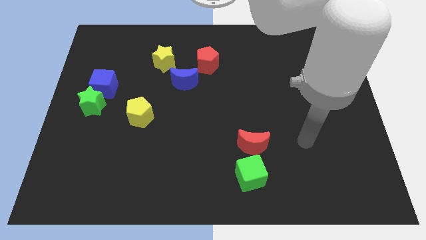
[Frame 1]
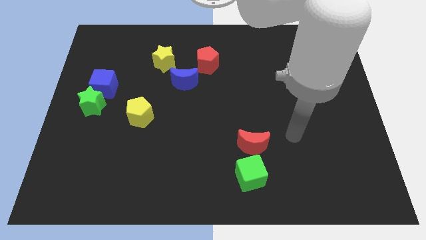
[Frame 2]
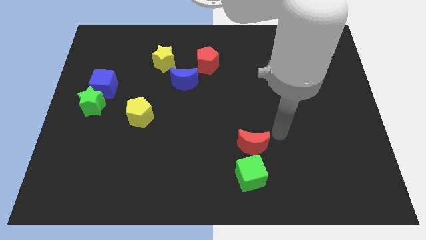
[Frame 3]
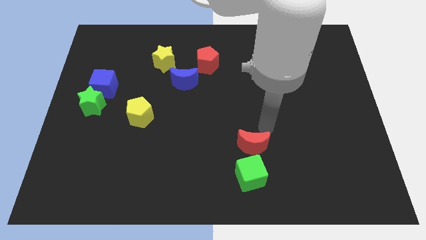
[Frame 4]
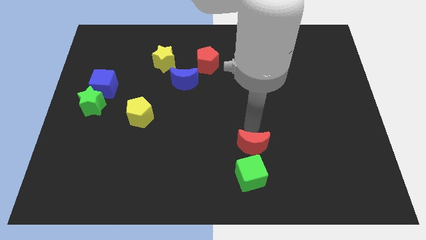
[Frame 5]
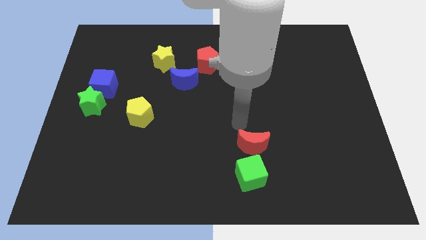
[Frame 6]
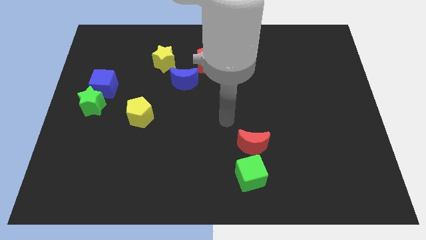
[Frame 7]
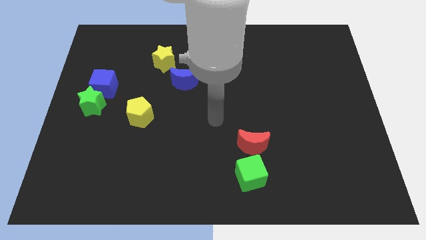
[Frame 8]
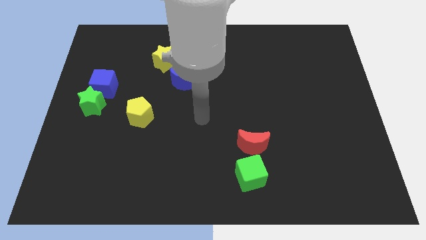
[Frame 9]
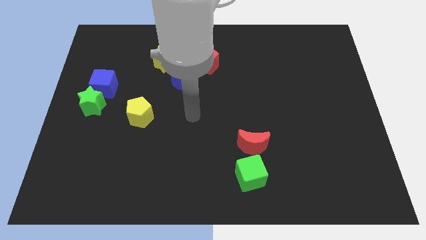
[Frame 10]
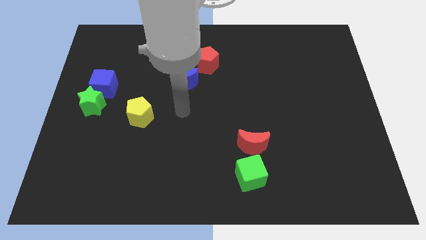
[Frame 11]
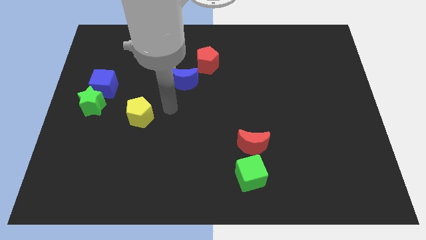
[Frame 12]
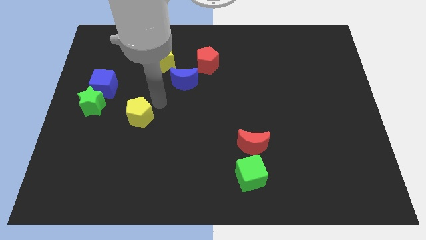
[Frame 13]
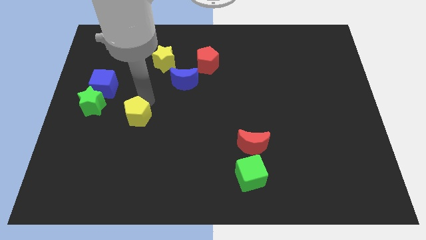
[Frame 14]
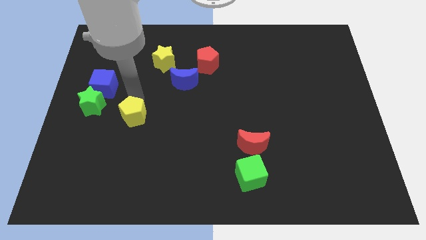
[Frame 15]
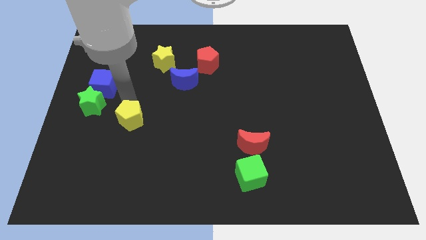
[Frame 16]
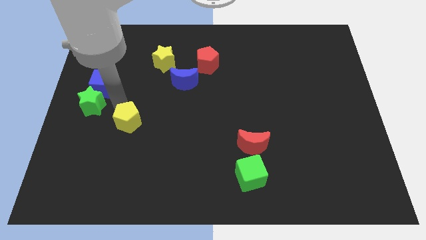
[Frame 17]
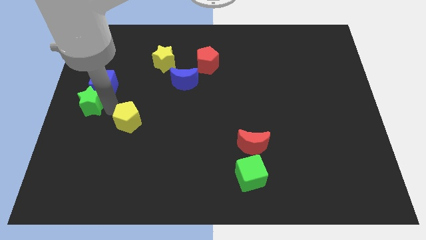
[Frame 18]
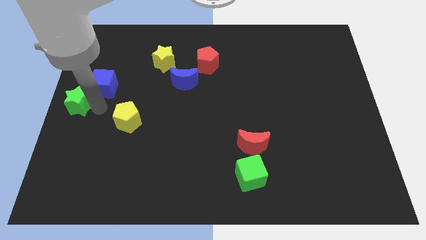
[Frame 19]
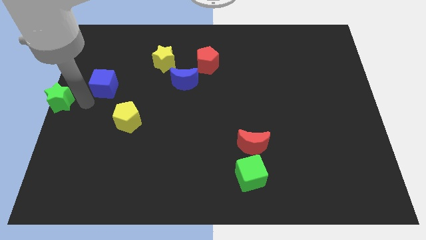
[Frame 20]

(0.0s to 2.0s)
pull the blue cube apart from the green star

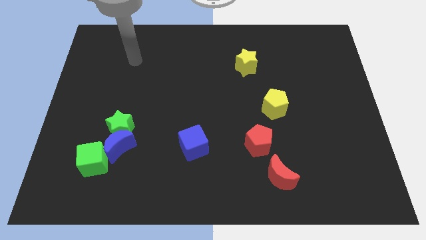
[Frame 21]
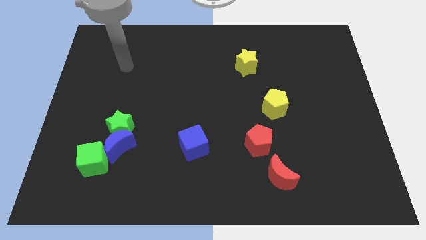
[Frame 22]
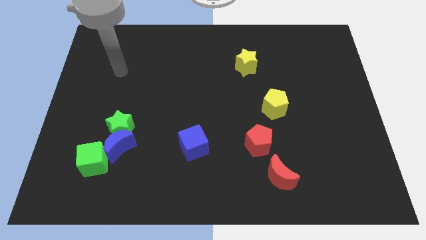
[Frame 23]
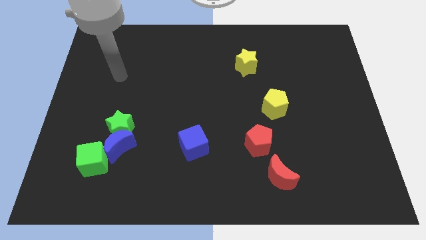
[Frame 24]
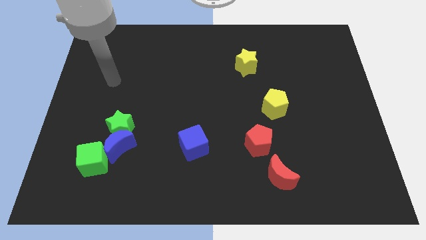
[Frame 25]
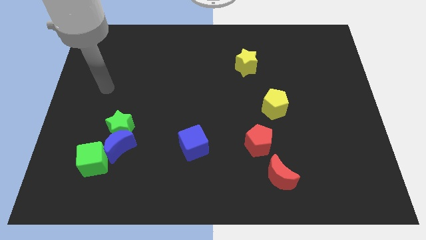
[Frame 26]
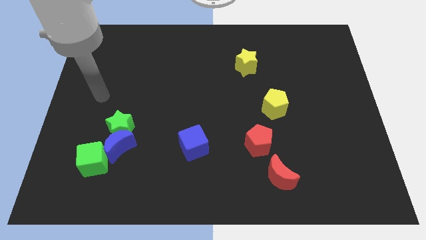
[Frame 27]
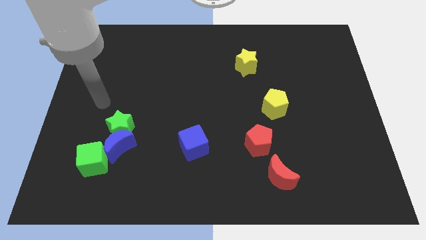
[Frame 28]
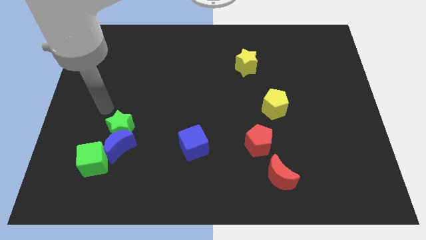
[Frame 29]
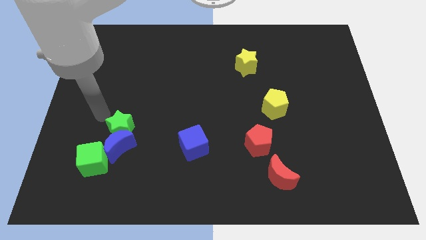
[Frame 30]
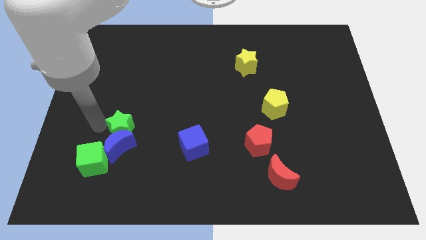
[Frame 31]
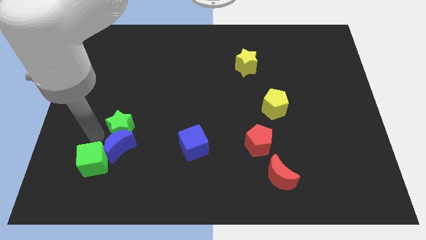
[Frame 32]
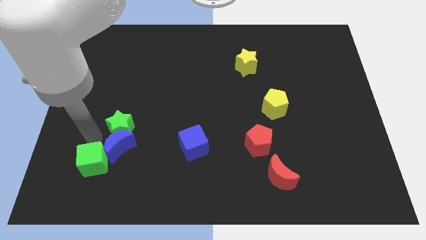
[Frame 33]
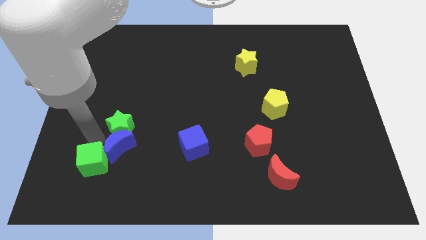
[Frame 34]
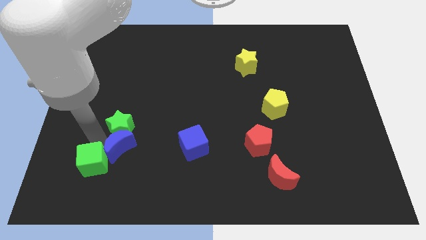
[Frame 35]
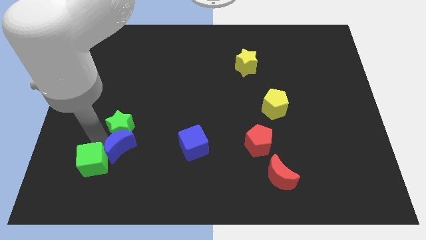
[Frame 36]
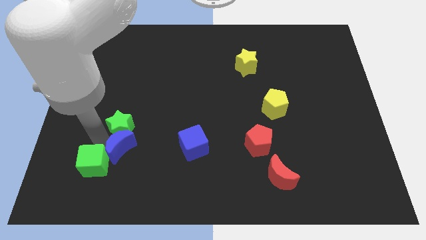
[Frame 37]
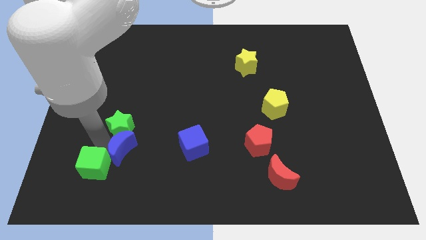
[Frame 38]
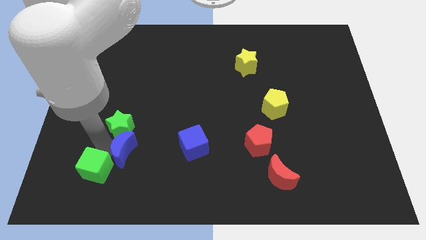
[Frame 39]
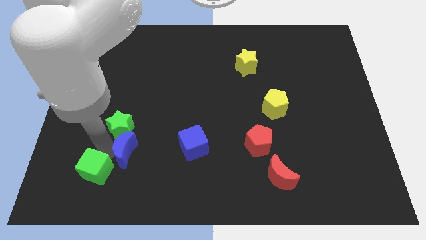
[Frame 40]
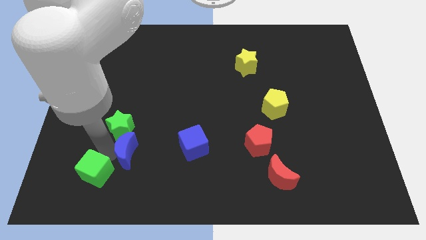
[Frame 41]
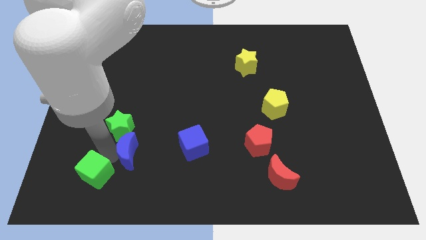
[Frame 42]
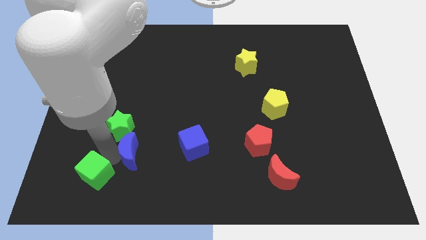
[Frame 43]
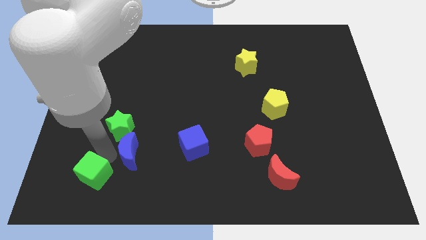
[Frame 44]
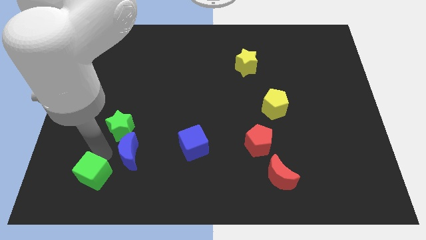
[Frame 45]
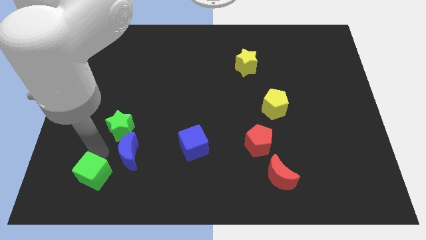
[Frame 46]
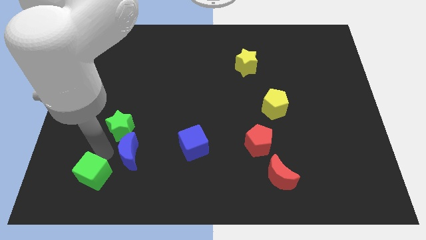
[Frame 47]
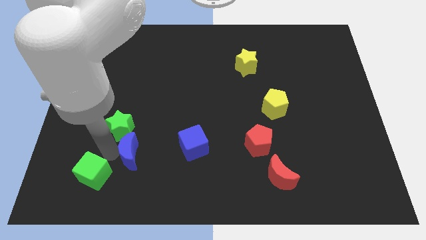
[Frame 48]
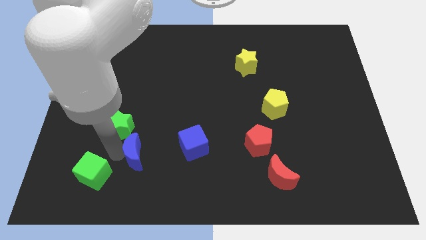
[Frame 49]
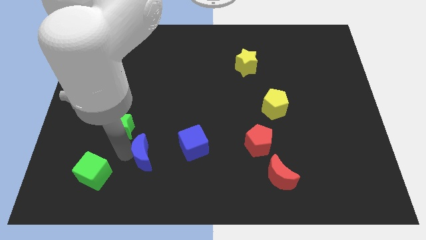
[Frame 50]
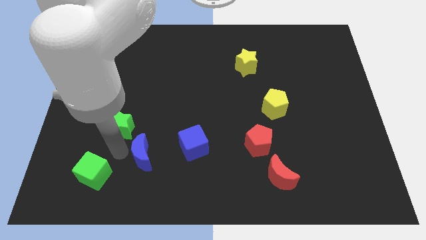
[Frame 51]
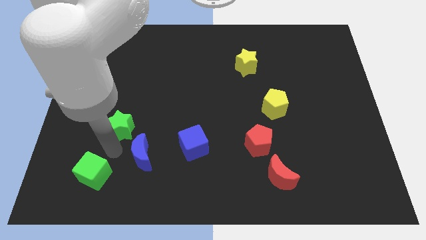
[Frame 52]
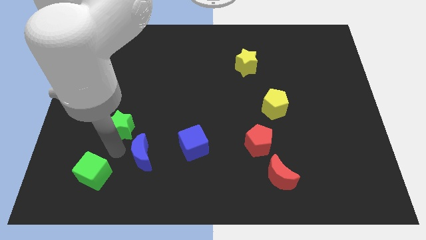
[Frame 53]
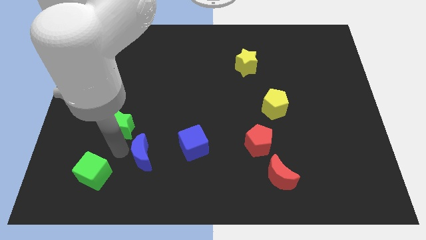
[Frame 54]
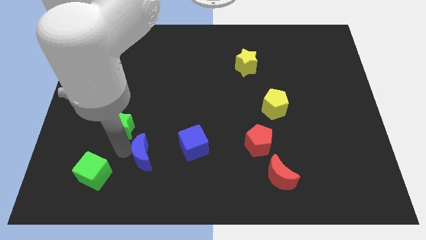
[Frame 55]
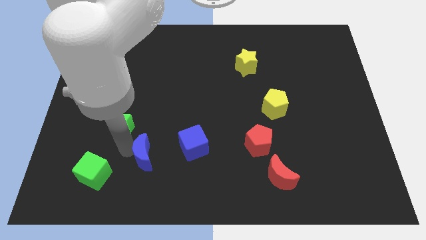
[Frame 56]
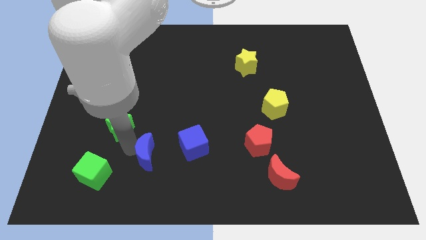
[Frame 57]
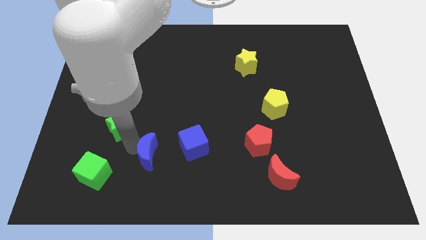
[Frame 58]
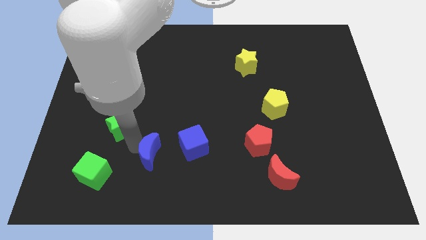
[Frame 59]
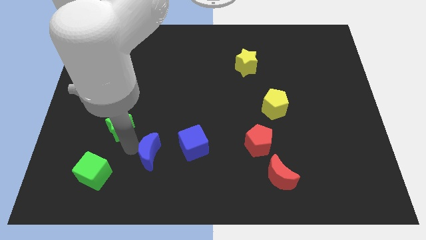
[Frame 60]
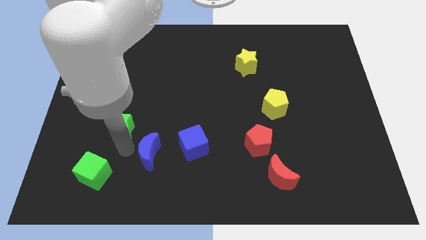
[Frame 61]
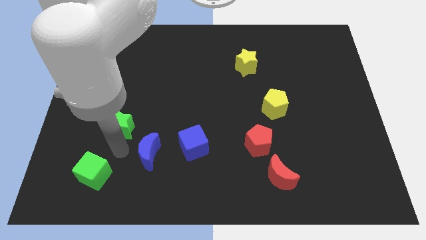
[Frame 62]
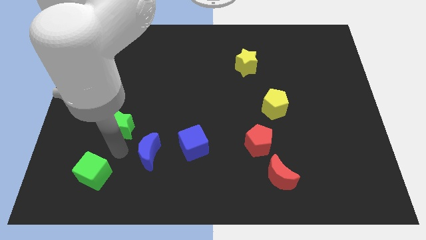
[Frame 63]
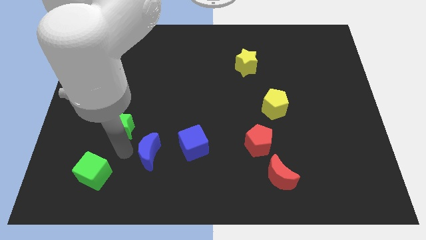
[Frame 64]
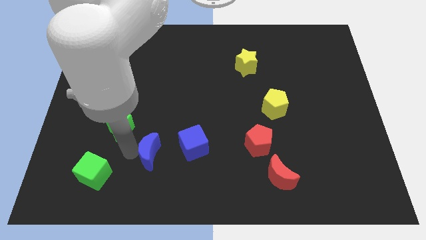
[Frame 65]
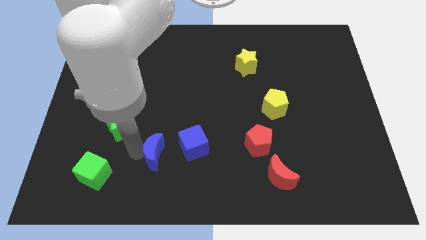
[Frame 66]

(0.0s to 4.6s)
separate the blue moon from the green star and green cube

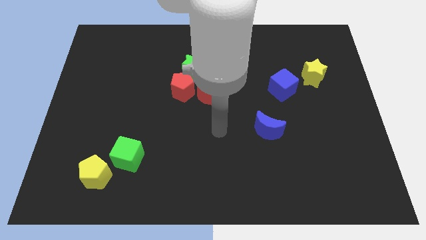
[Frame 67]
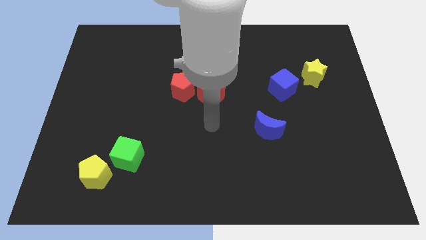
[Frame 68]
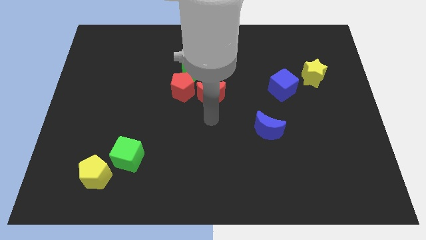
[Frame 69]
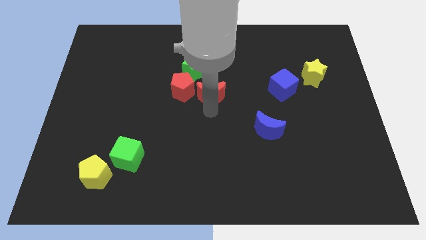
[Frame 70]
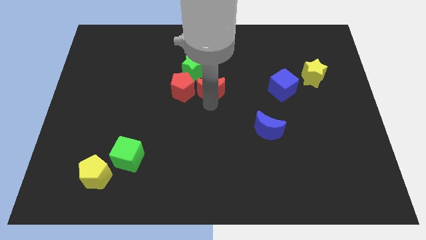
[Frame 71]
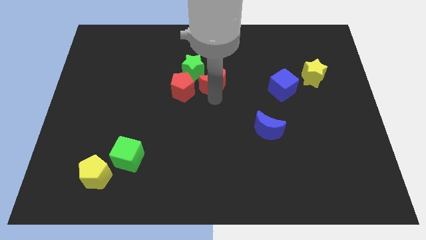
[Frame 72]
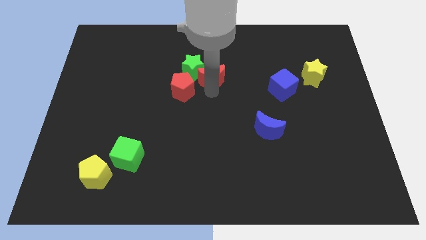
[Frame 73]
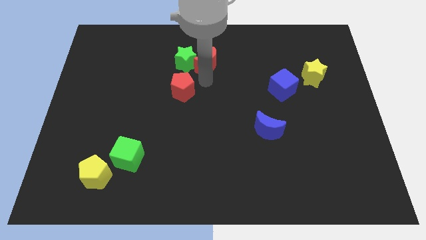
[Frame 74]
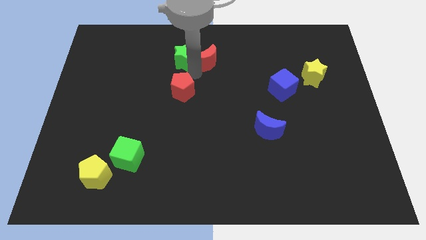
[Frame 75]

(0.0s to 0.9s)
move the red pentagon away from the green star and red moon

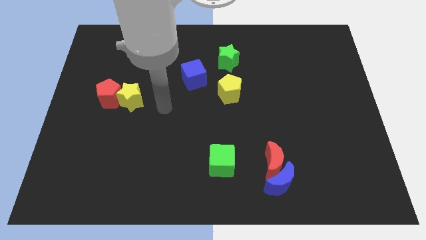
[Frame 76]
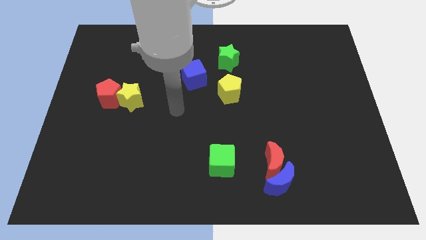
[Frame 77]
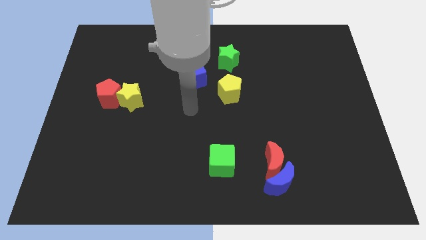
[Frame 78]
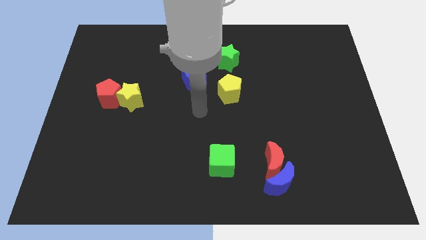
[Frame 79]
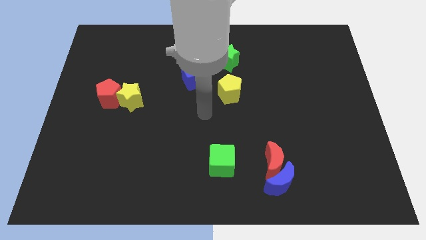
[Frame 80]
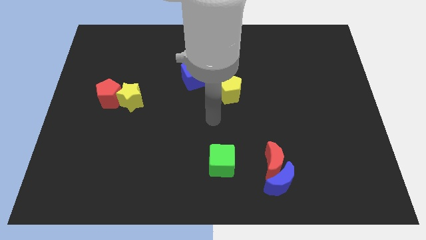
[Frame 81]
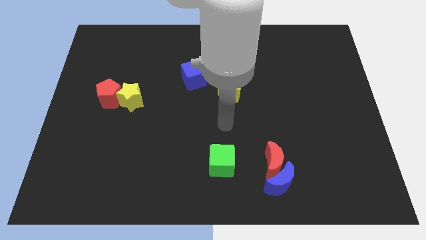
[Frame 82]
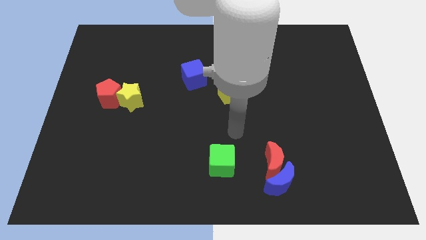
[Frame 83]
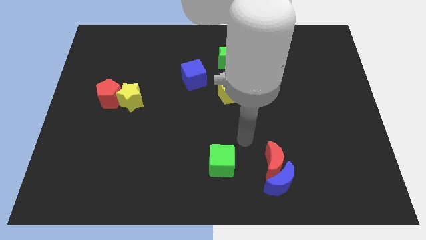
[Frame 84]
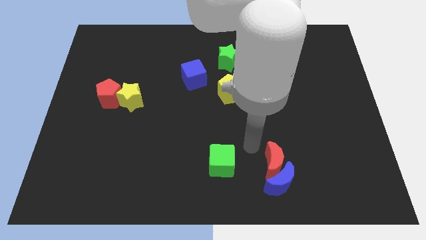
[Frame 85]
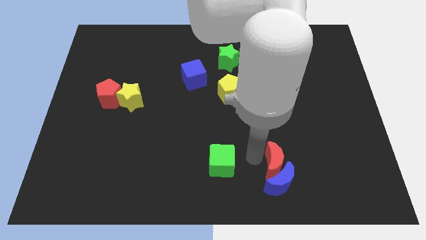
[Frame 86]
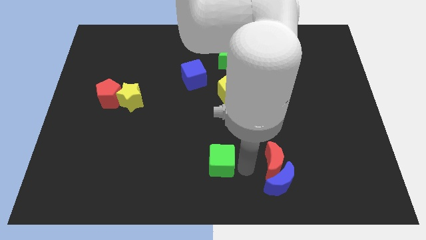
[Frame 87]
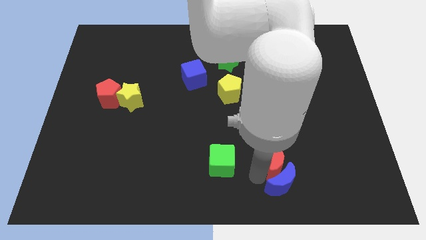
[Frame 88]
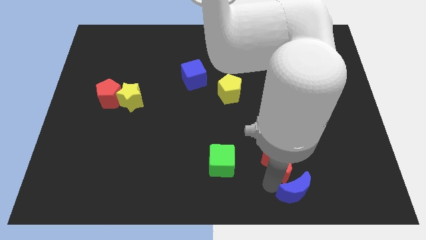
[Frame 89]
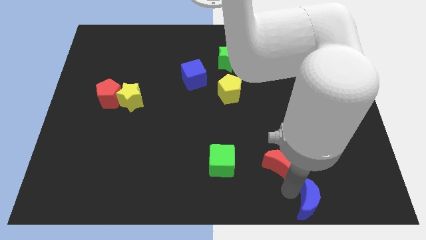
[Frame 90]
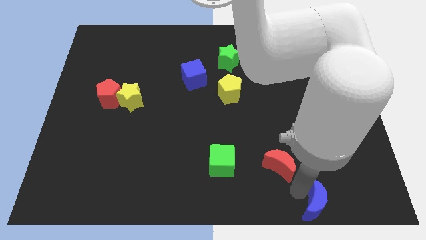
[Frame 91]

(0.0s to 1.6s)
separate the red moon from the blue moon

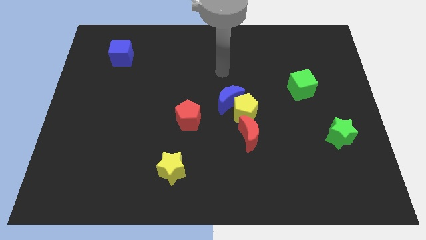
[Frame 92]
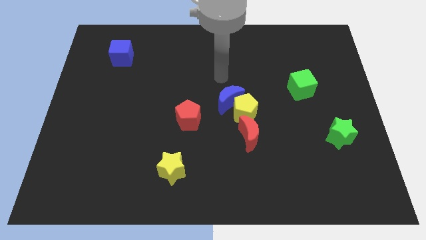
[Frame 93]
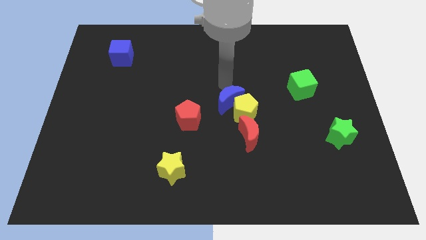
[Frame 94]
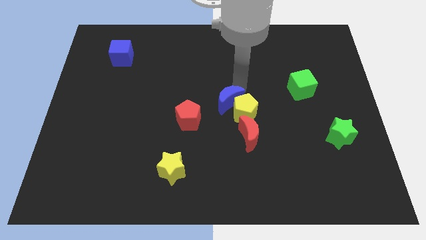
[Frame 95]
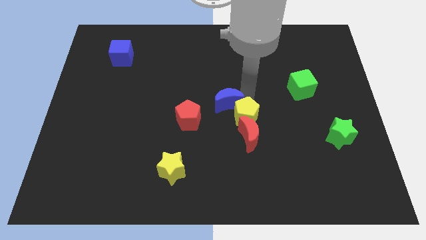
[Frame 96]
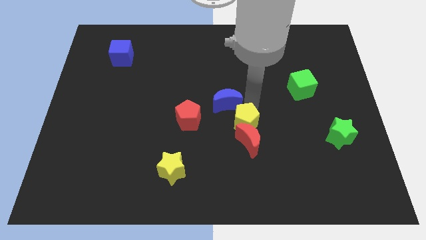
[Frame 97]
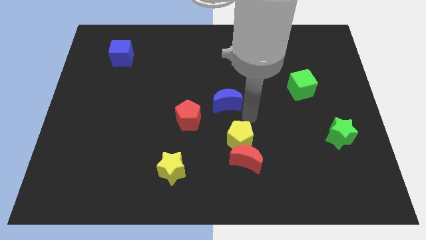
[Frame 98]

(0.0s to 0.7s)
separate the blue moon from the yellow pentagon
